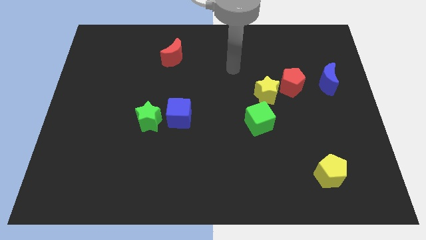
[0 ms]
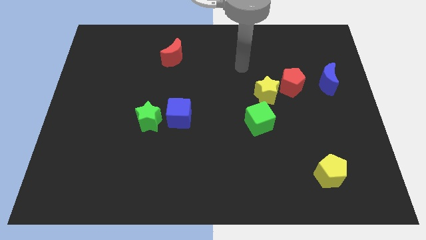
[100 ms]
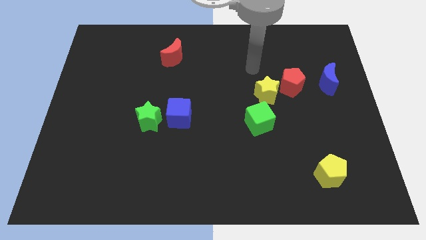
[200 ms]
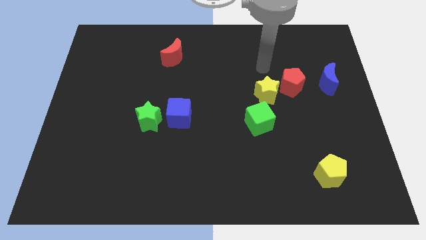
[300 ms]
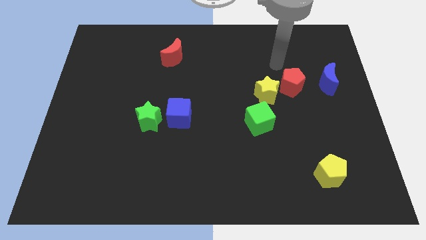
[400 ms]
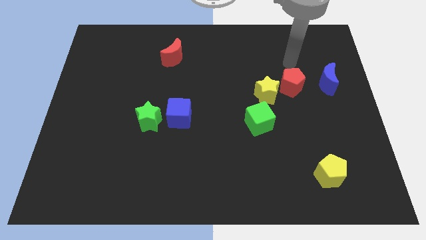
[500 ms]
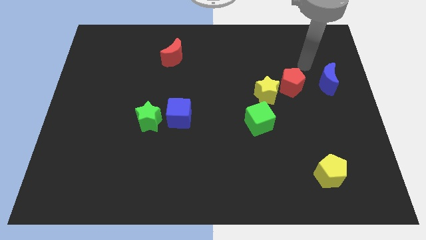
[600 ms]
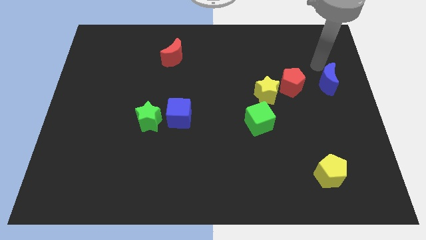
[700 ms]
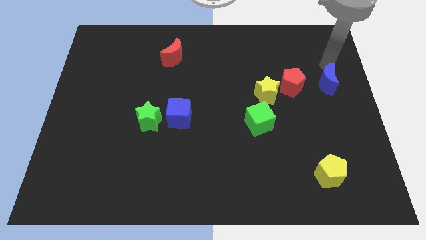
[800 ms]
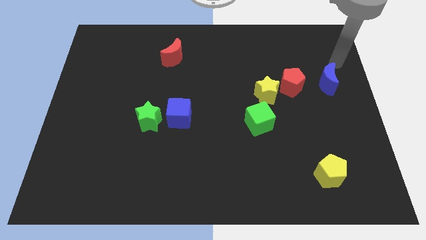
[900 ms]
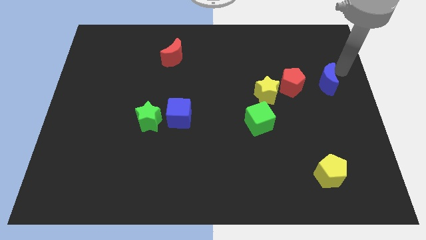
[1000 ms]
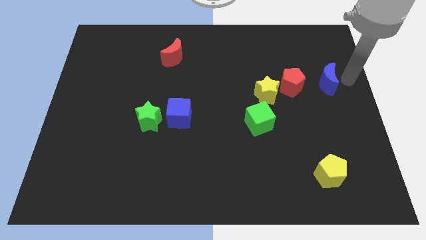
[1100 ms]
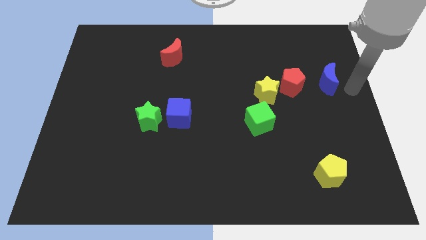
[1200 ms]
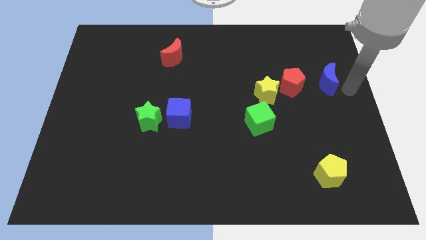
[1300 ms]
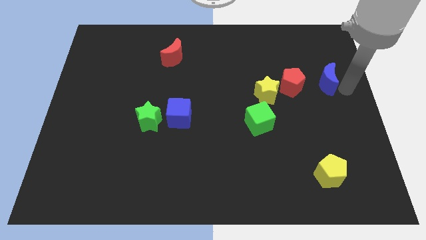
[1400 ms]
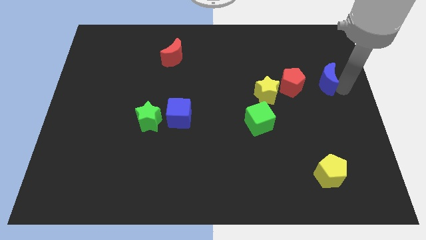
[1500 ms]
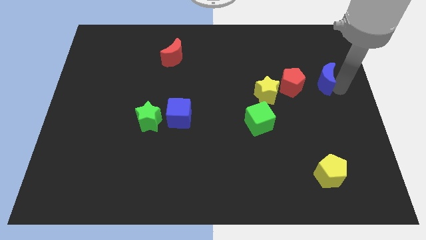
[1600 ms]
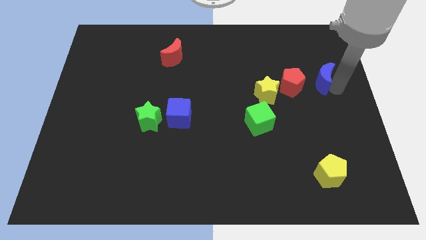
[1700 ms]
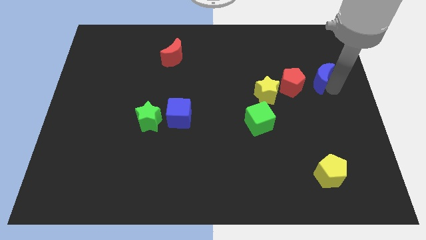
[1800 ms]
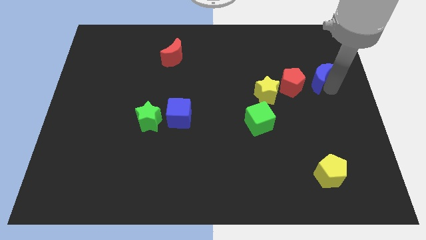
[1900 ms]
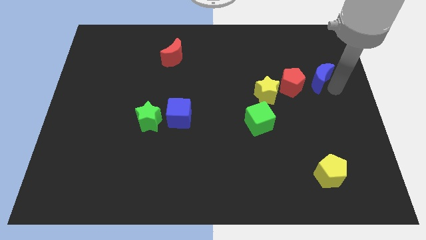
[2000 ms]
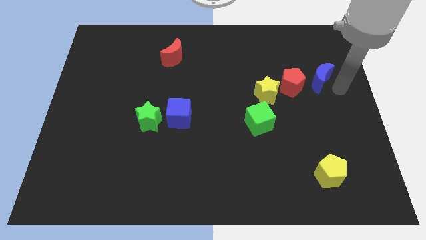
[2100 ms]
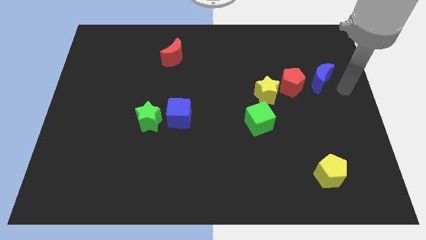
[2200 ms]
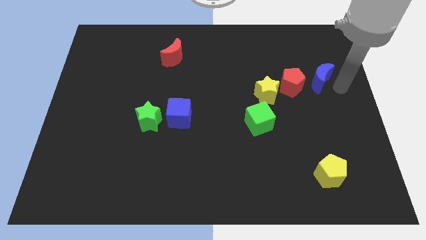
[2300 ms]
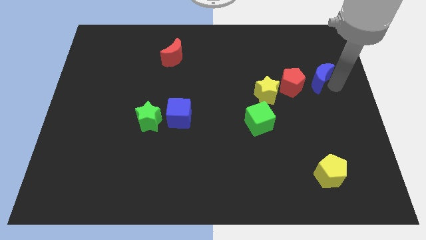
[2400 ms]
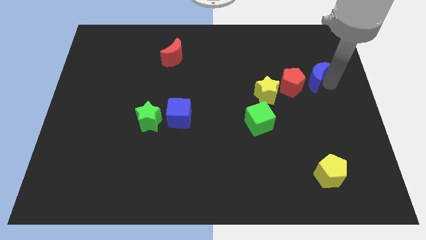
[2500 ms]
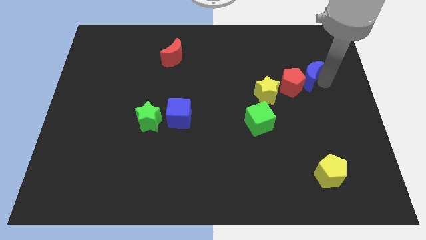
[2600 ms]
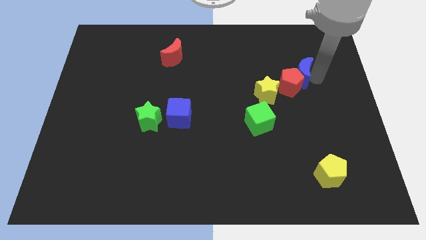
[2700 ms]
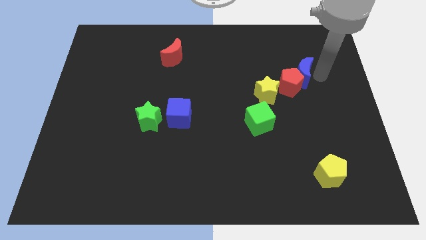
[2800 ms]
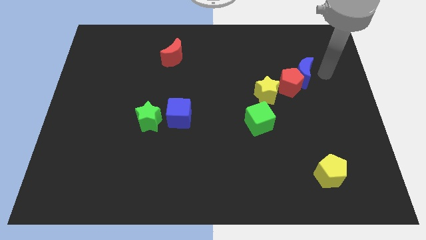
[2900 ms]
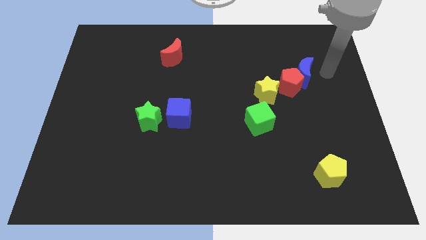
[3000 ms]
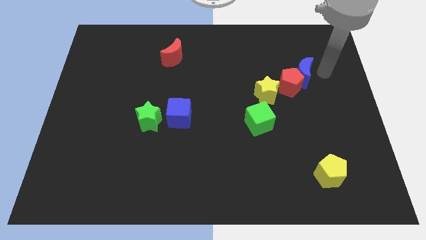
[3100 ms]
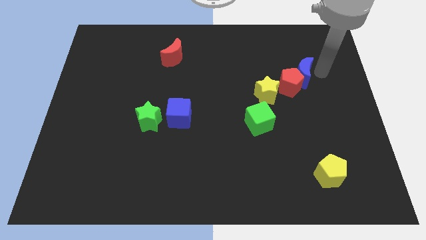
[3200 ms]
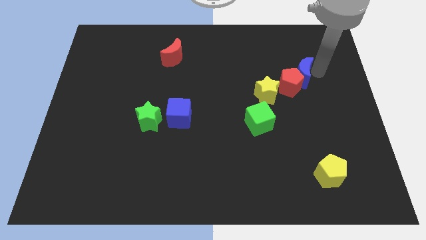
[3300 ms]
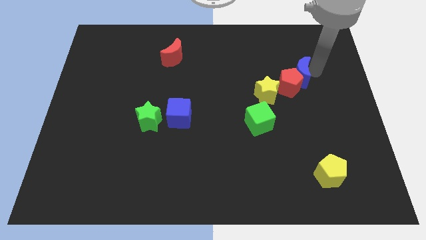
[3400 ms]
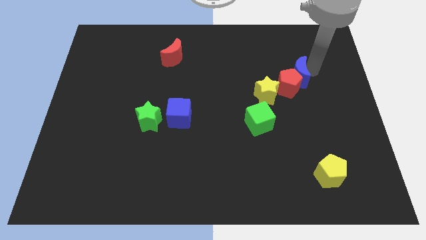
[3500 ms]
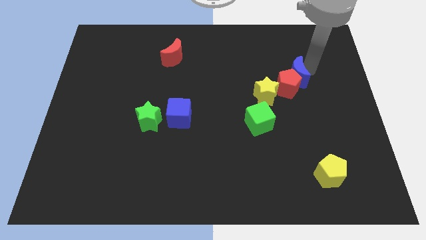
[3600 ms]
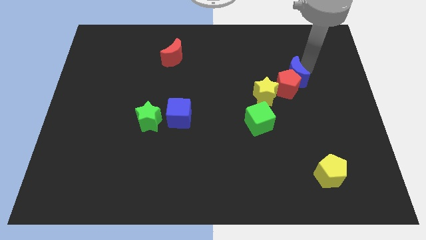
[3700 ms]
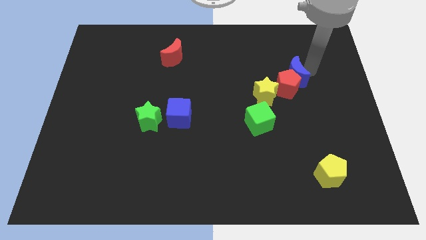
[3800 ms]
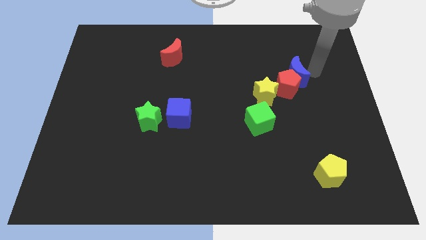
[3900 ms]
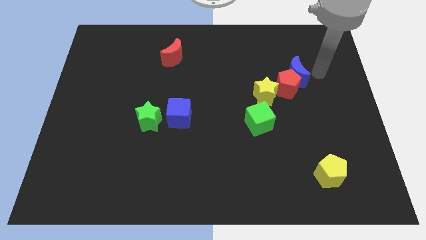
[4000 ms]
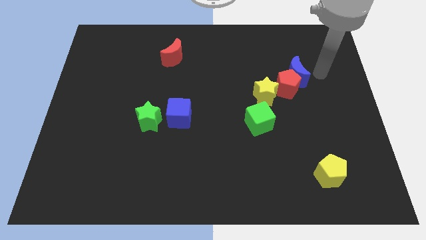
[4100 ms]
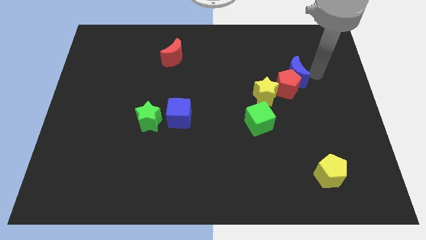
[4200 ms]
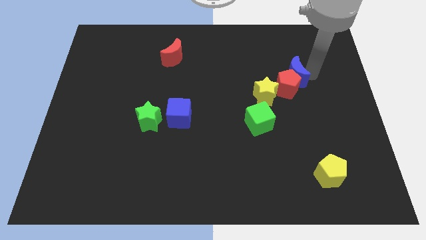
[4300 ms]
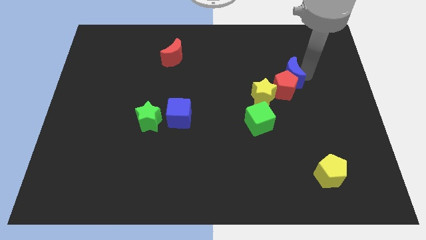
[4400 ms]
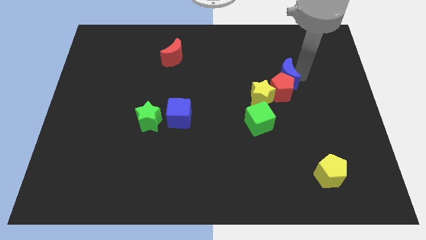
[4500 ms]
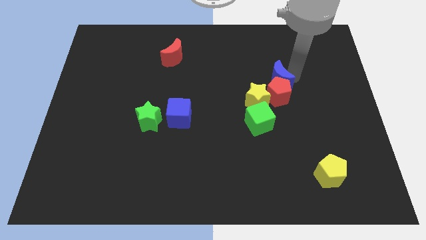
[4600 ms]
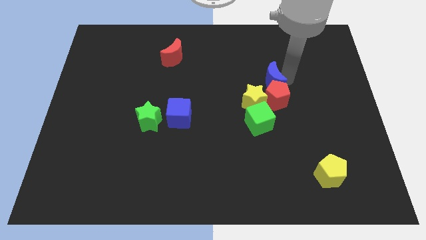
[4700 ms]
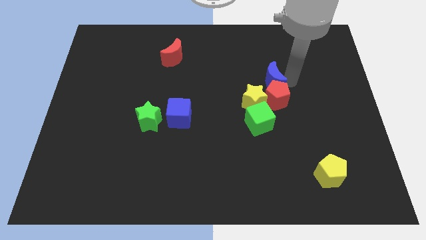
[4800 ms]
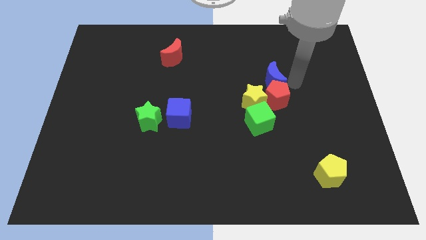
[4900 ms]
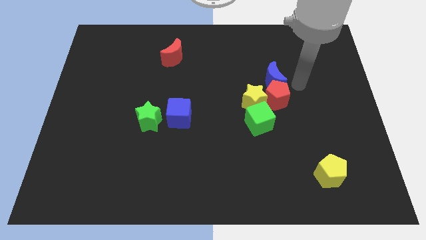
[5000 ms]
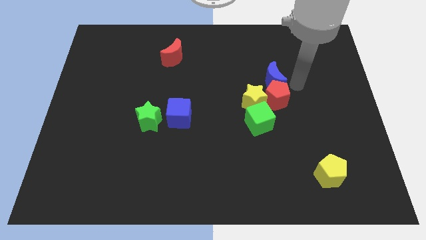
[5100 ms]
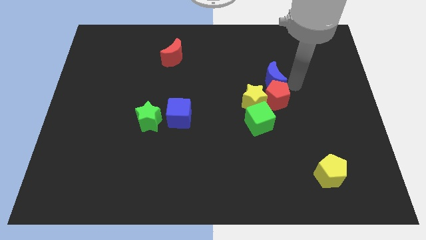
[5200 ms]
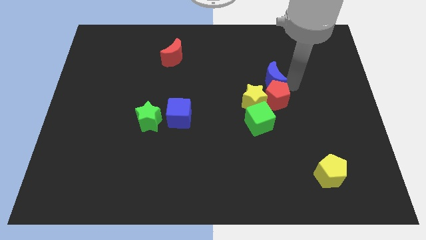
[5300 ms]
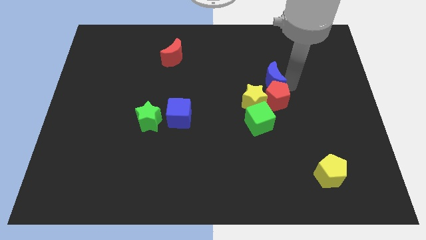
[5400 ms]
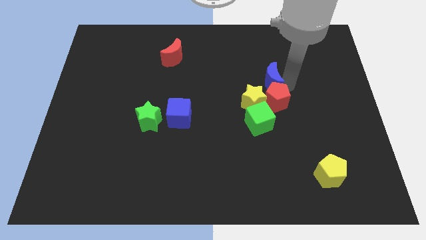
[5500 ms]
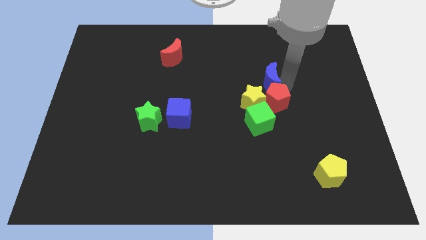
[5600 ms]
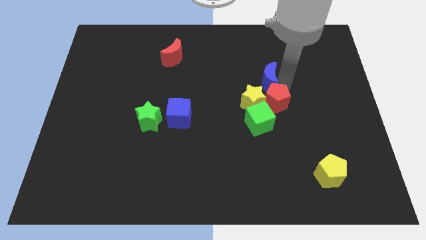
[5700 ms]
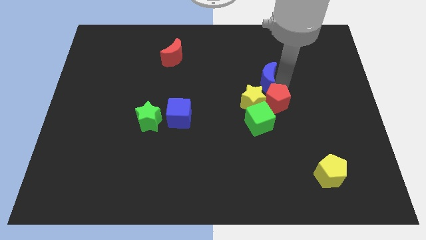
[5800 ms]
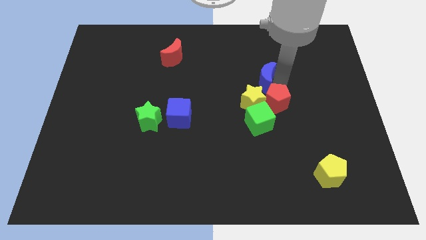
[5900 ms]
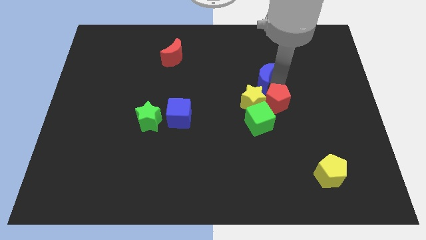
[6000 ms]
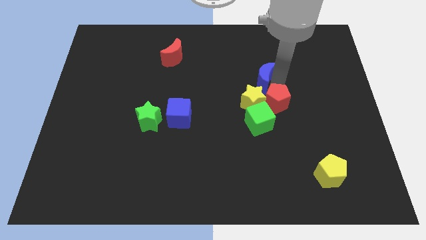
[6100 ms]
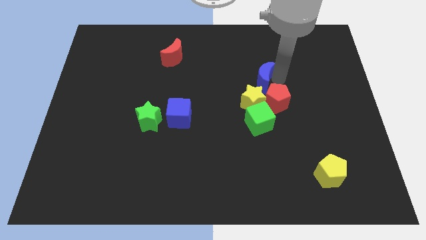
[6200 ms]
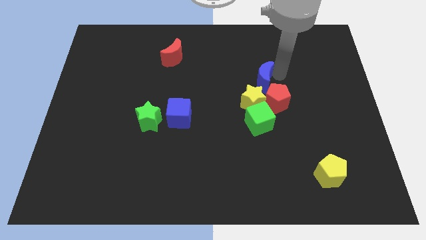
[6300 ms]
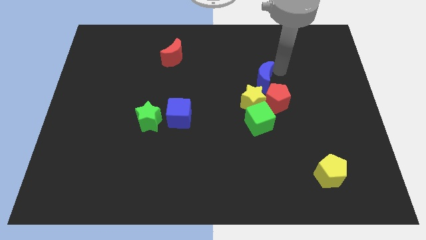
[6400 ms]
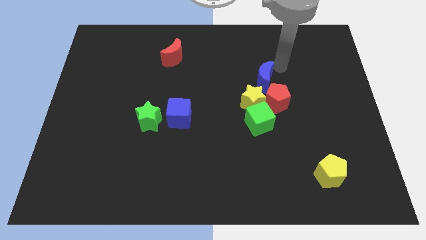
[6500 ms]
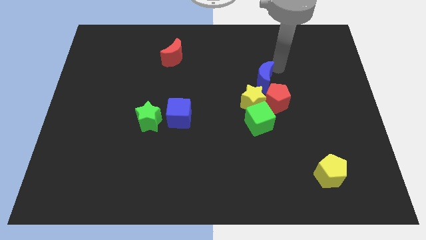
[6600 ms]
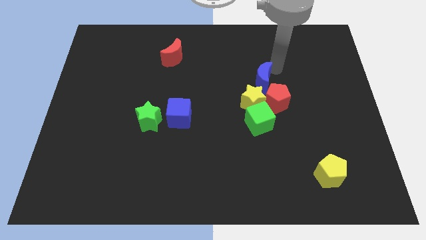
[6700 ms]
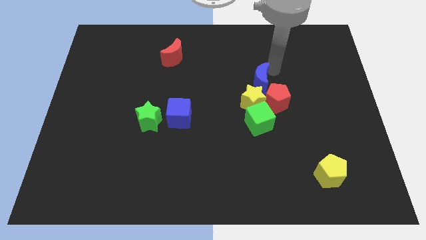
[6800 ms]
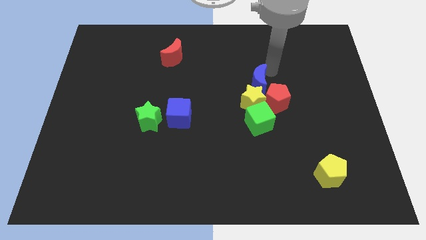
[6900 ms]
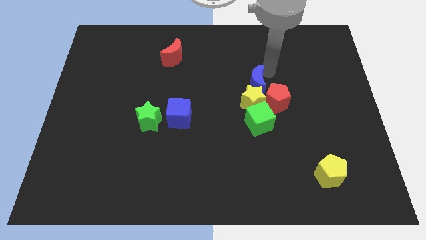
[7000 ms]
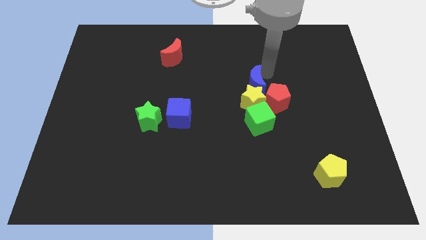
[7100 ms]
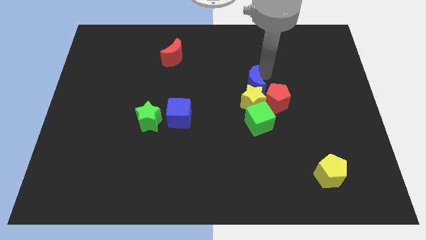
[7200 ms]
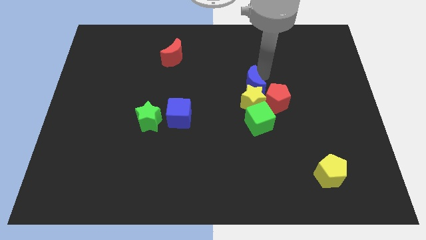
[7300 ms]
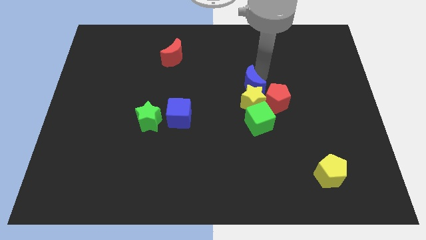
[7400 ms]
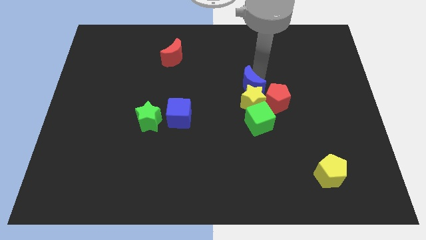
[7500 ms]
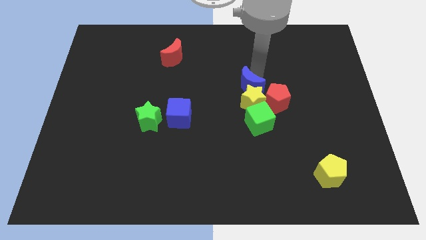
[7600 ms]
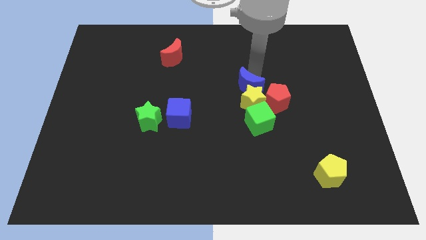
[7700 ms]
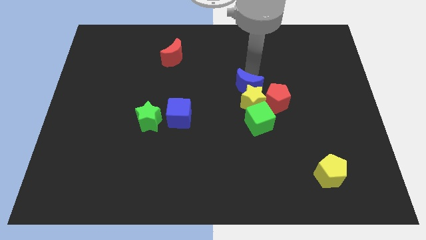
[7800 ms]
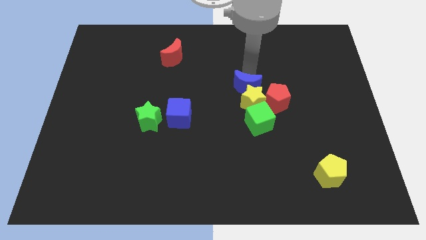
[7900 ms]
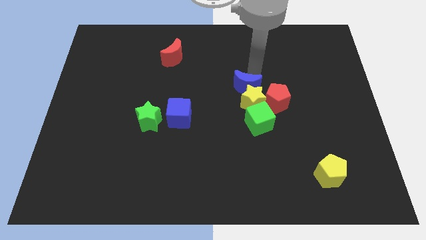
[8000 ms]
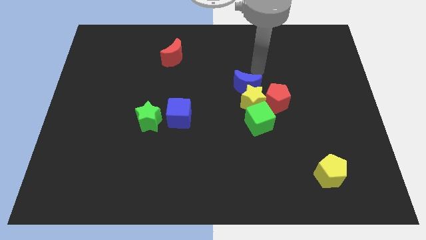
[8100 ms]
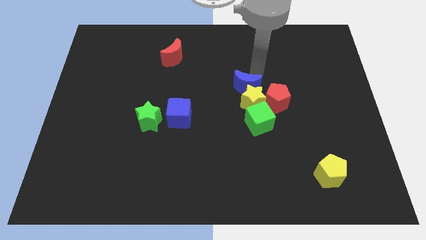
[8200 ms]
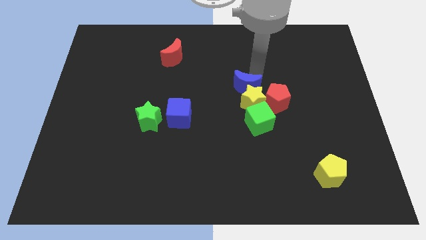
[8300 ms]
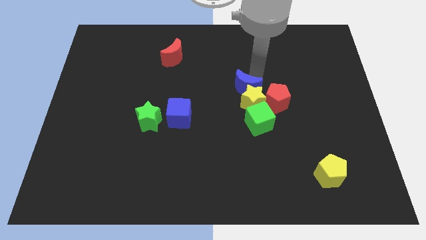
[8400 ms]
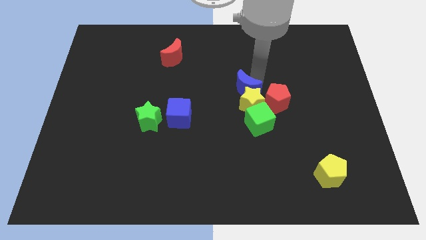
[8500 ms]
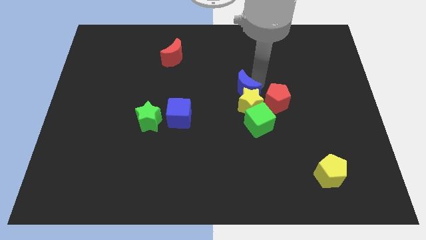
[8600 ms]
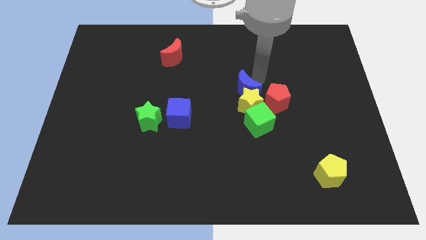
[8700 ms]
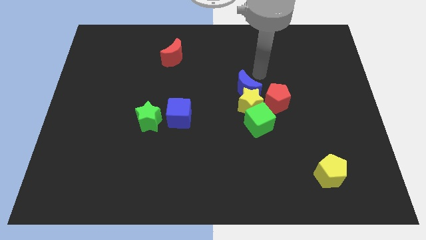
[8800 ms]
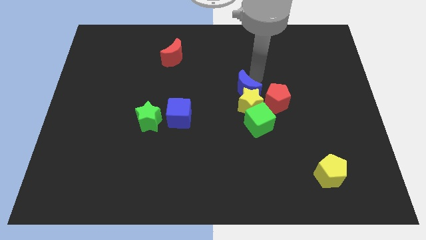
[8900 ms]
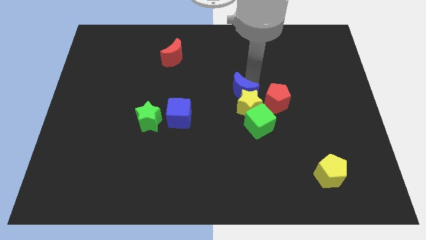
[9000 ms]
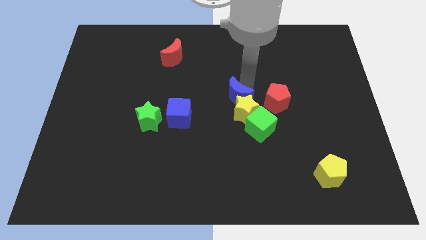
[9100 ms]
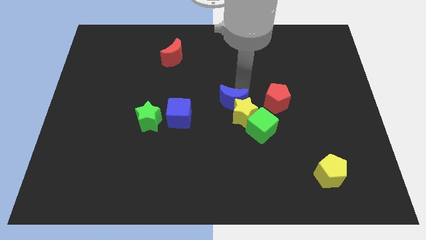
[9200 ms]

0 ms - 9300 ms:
push the blue moon right of the blue cube
